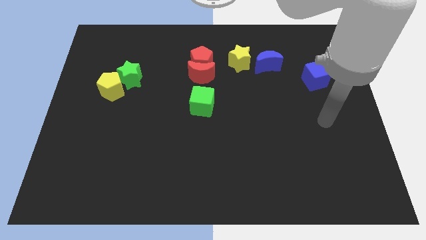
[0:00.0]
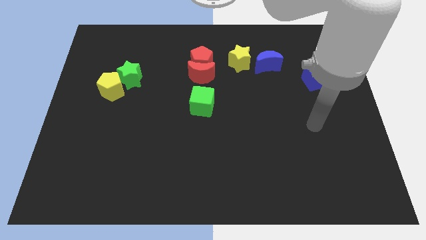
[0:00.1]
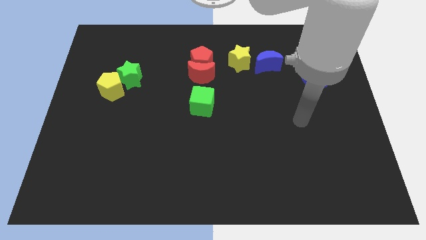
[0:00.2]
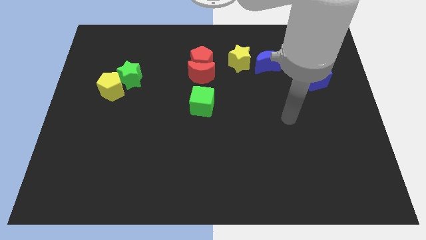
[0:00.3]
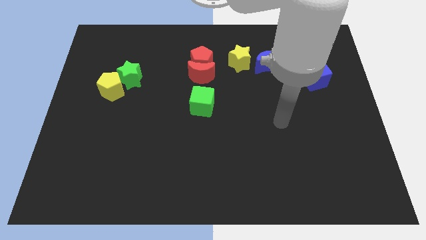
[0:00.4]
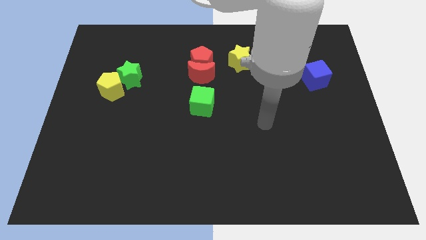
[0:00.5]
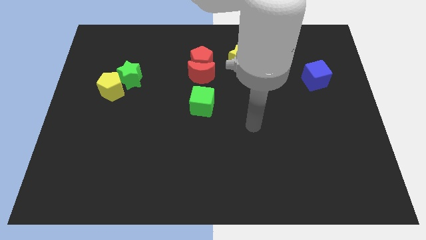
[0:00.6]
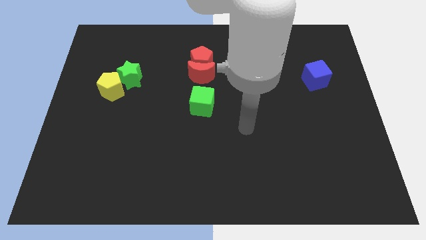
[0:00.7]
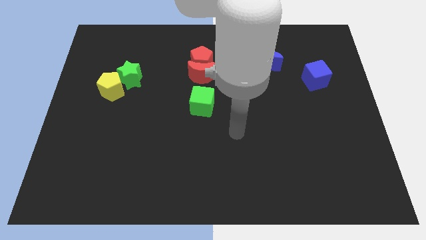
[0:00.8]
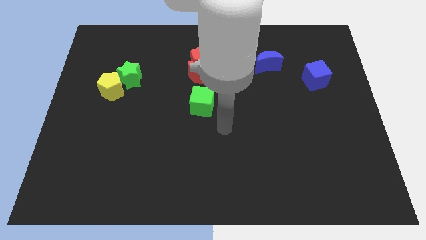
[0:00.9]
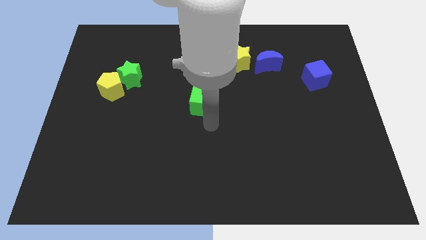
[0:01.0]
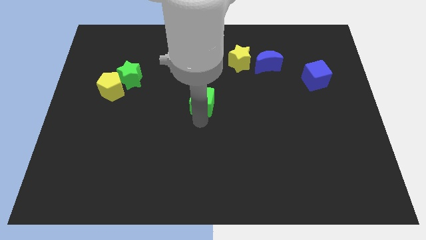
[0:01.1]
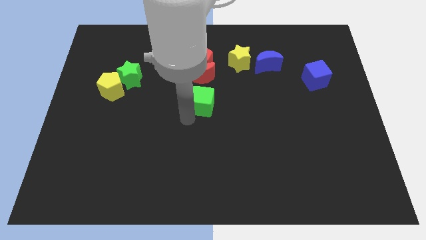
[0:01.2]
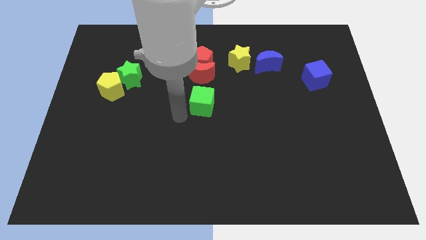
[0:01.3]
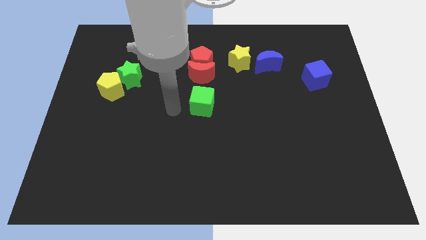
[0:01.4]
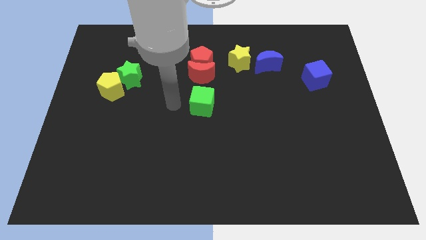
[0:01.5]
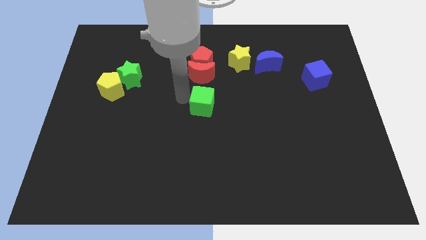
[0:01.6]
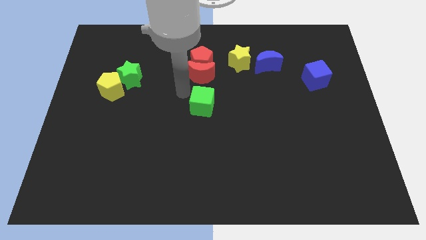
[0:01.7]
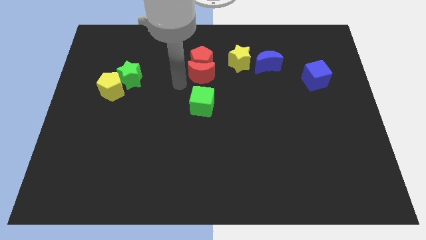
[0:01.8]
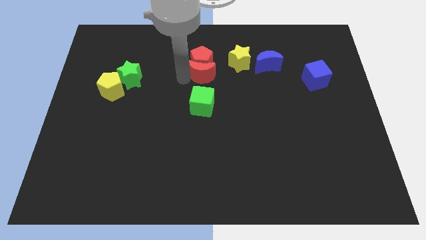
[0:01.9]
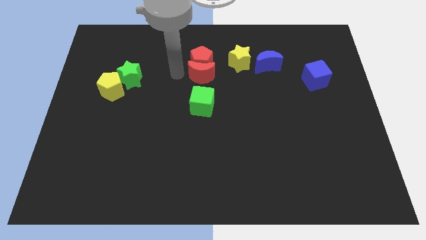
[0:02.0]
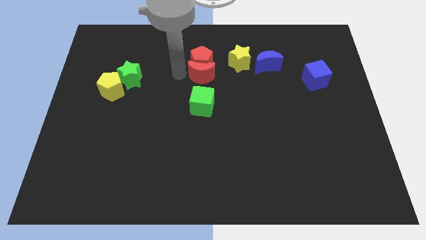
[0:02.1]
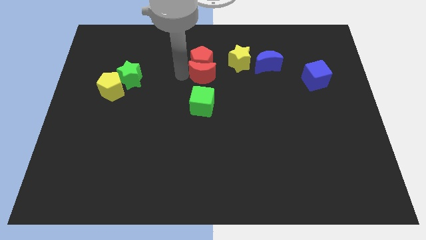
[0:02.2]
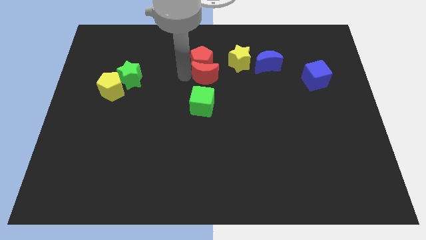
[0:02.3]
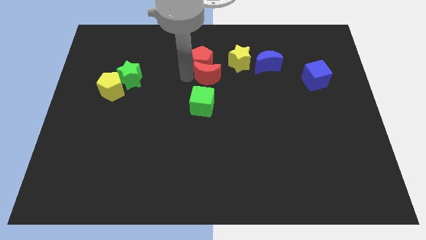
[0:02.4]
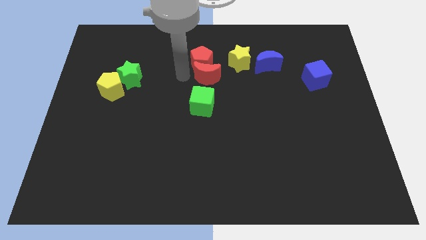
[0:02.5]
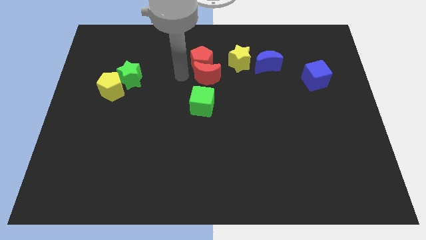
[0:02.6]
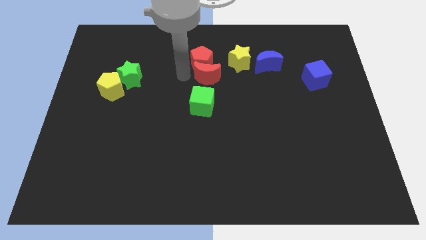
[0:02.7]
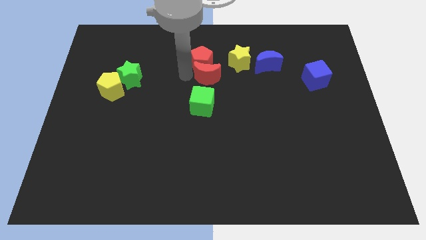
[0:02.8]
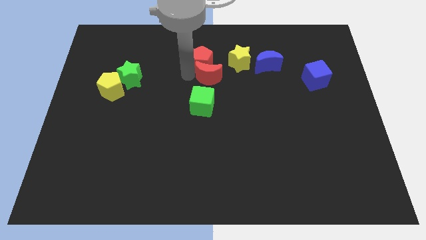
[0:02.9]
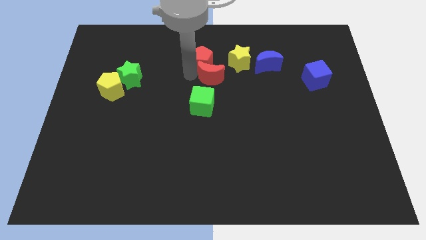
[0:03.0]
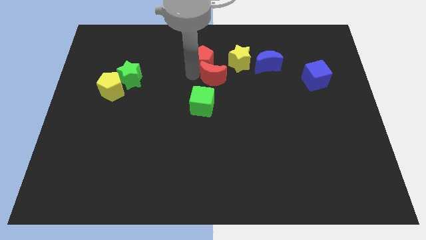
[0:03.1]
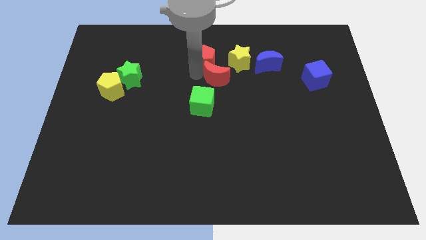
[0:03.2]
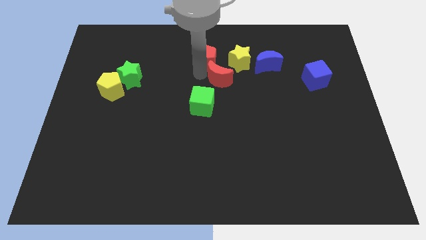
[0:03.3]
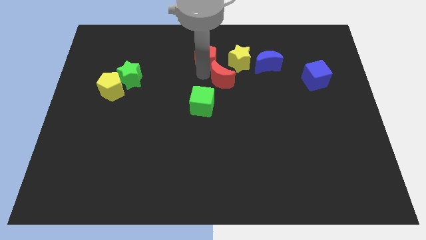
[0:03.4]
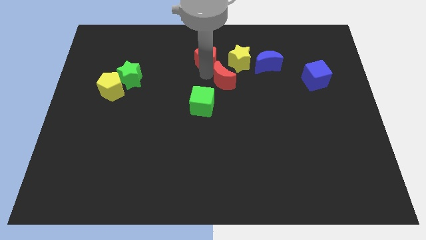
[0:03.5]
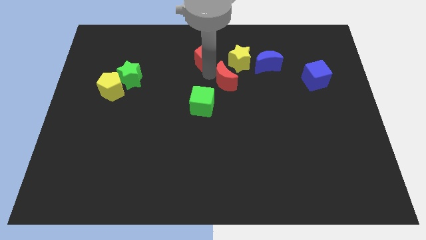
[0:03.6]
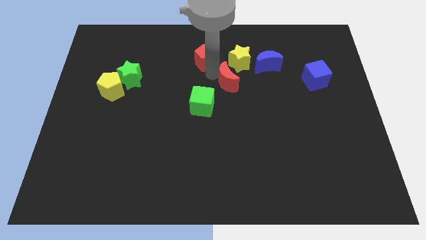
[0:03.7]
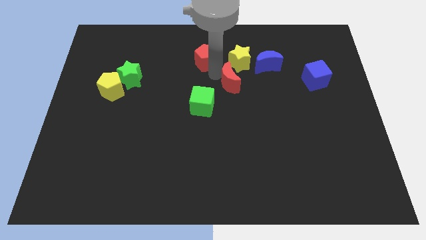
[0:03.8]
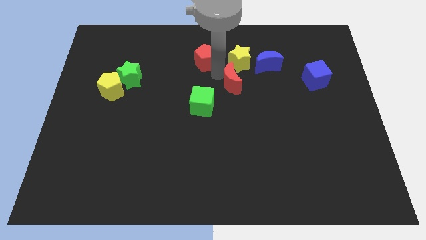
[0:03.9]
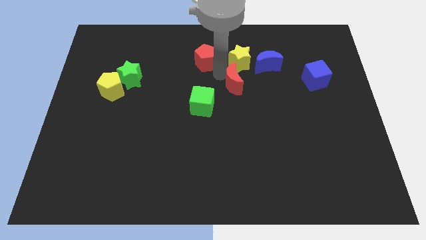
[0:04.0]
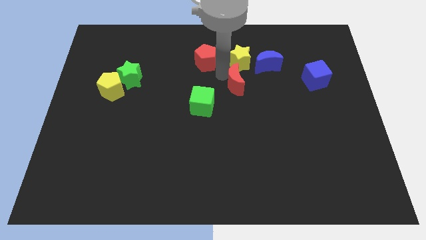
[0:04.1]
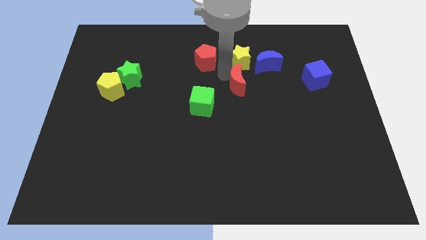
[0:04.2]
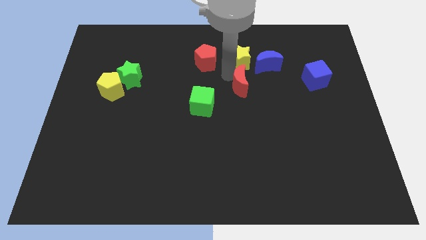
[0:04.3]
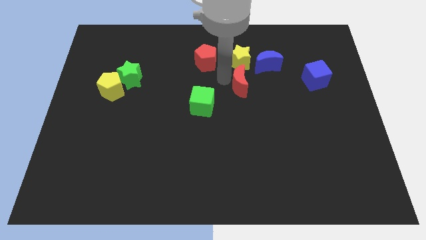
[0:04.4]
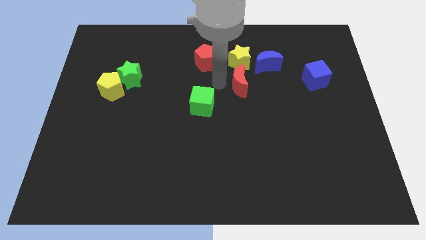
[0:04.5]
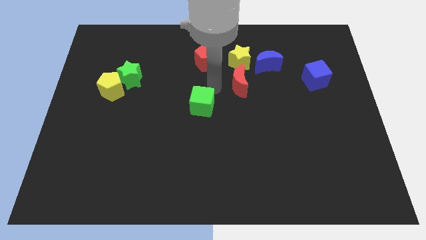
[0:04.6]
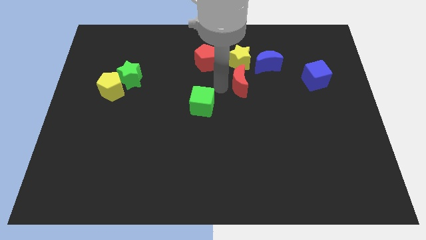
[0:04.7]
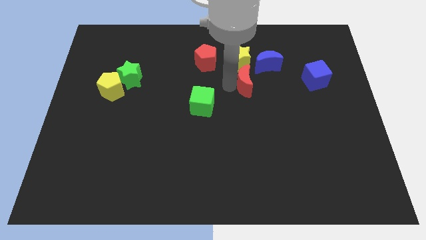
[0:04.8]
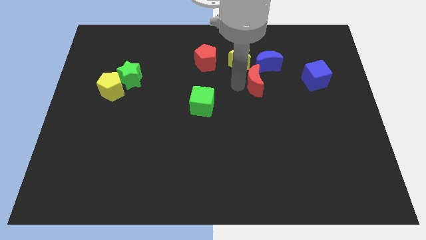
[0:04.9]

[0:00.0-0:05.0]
slide the red moon left of the blue cube

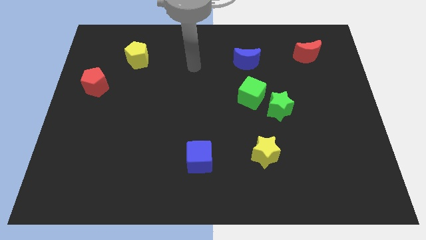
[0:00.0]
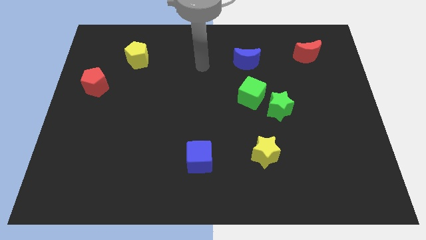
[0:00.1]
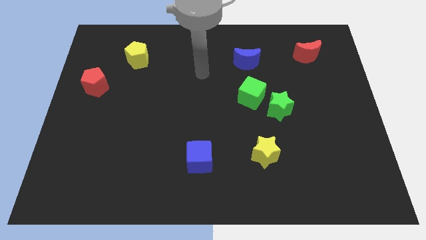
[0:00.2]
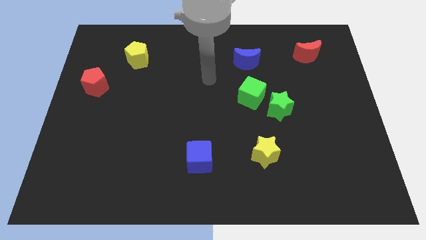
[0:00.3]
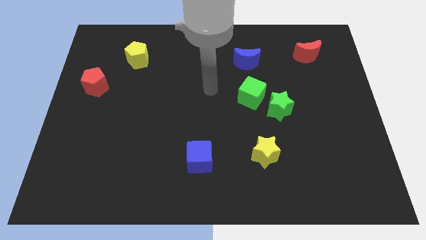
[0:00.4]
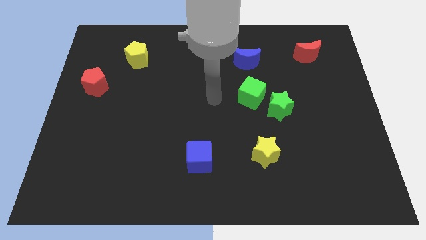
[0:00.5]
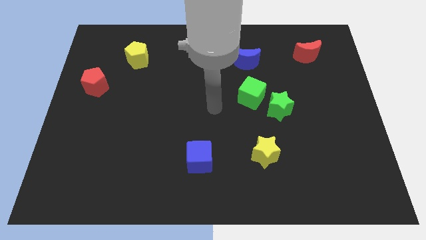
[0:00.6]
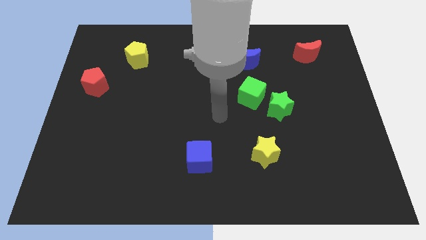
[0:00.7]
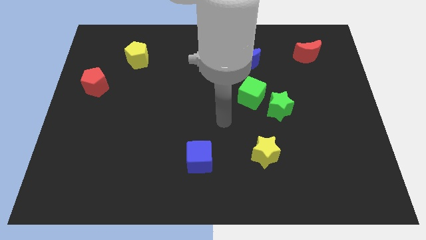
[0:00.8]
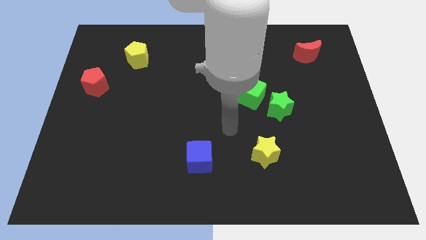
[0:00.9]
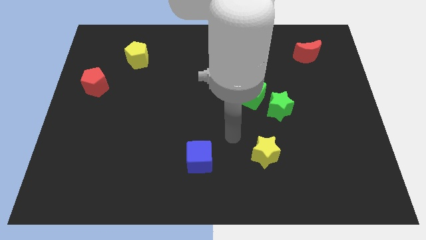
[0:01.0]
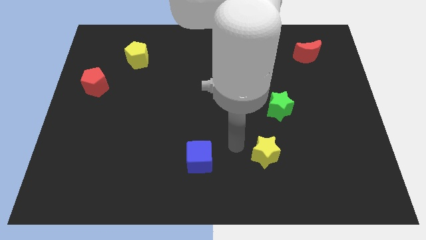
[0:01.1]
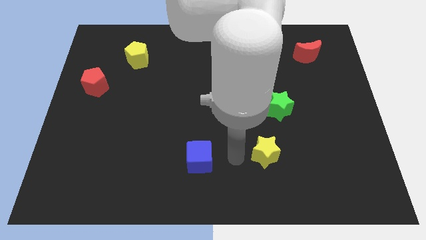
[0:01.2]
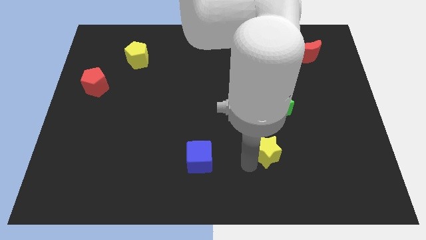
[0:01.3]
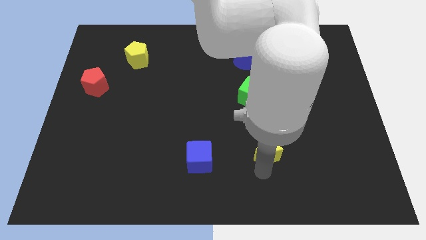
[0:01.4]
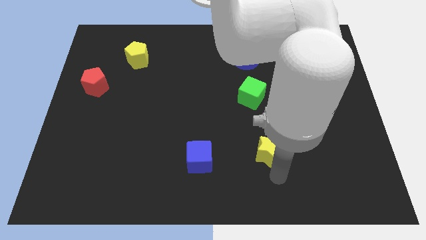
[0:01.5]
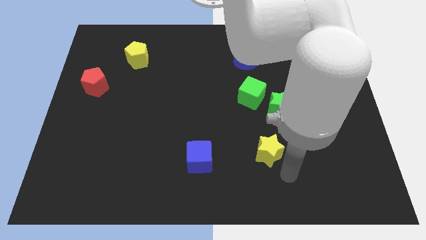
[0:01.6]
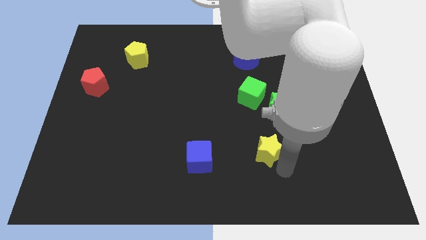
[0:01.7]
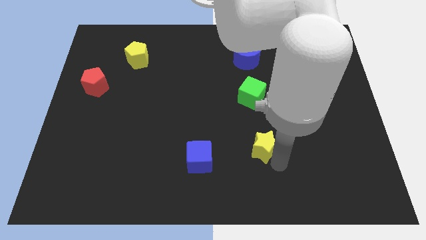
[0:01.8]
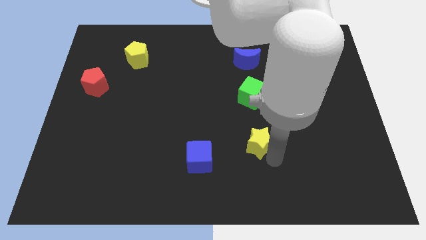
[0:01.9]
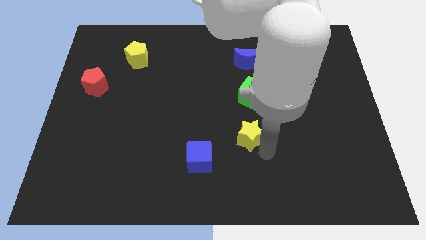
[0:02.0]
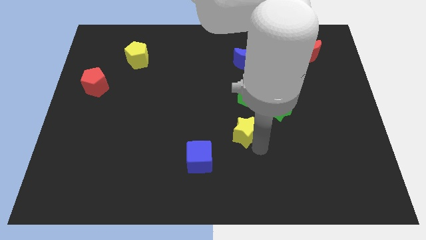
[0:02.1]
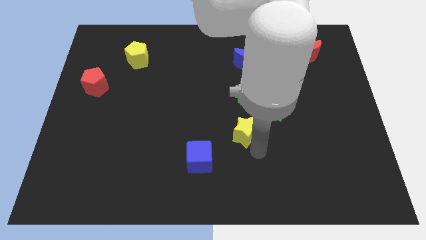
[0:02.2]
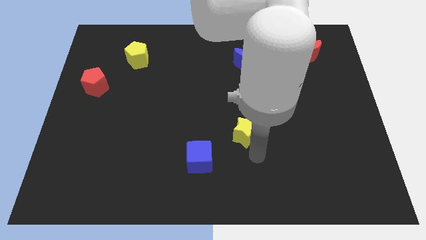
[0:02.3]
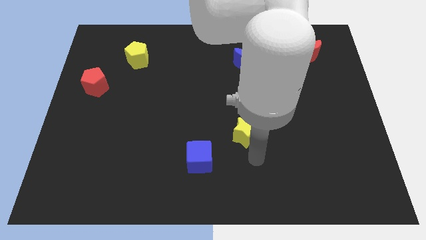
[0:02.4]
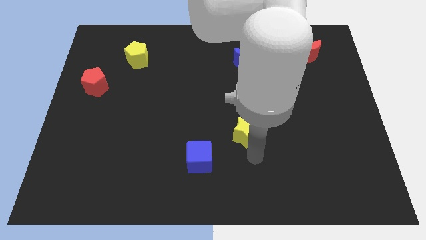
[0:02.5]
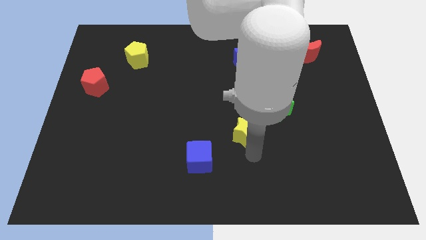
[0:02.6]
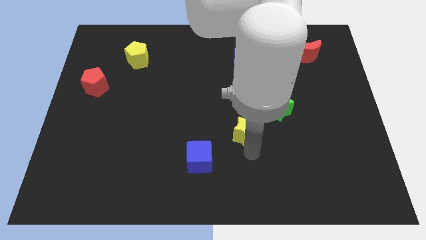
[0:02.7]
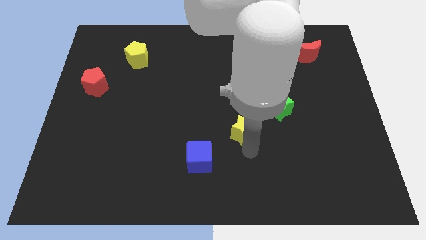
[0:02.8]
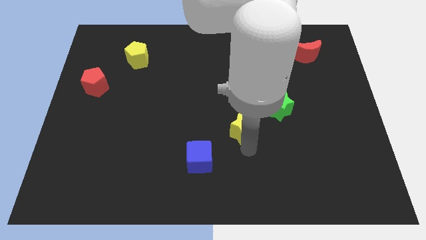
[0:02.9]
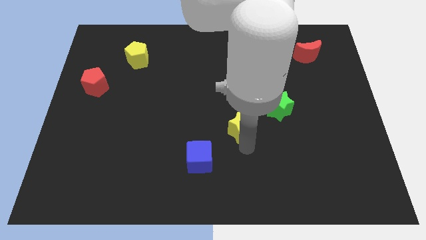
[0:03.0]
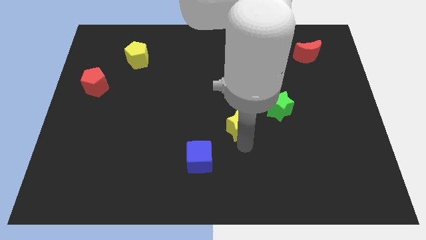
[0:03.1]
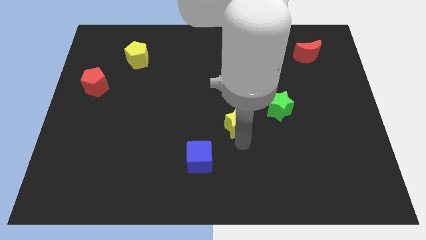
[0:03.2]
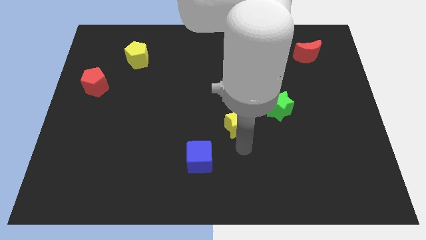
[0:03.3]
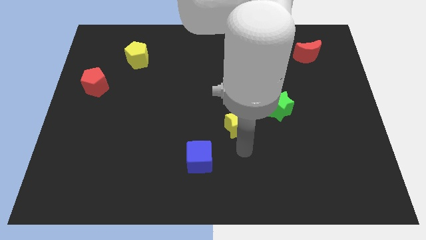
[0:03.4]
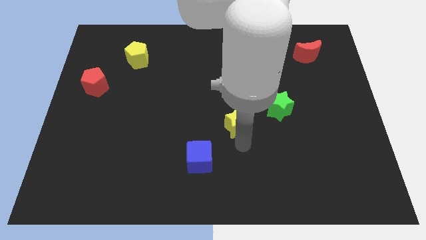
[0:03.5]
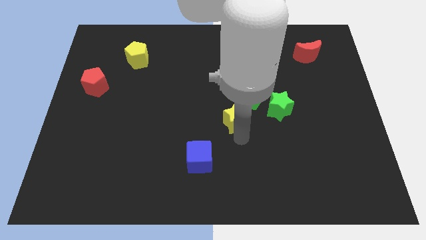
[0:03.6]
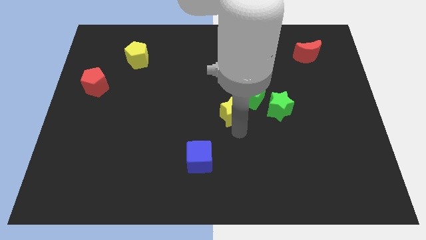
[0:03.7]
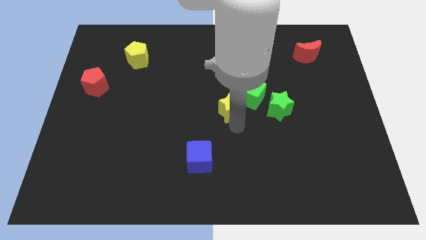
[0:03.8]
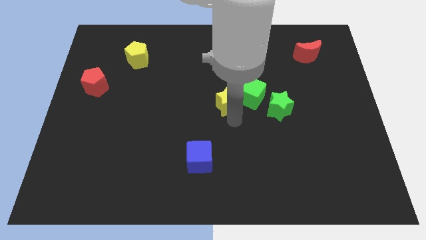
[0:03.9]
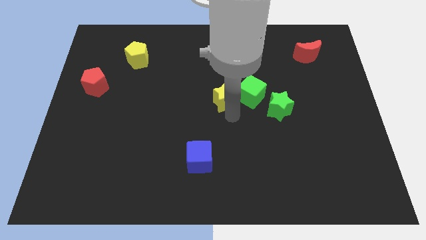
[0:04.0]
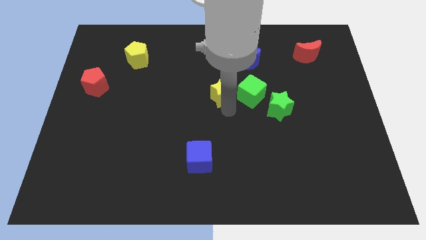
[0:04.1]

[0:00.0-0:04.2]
push the yellow star to the top left of the green cube
